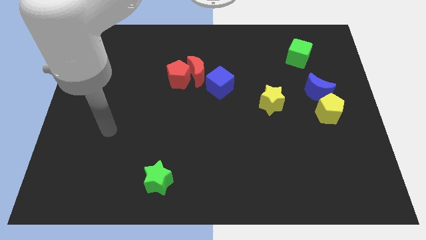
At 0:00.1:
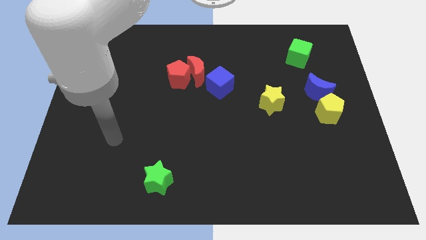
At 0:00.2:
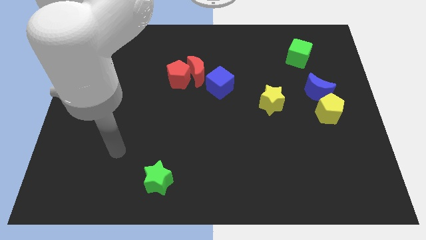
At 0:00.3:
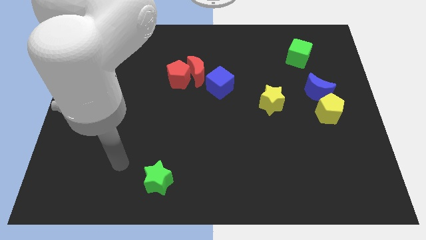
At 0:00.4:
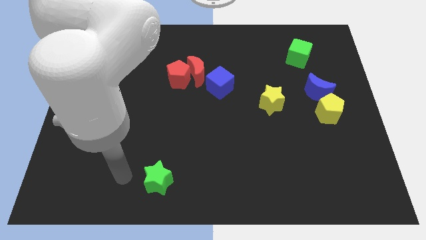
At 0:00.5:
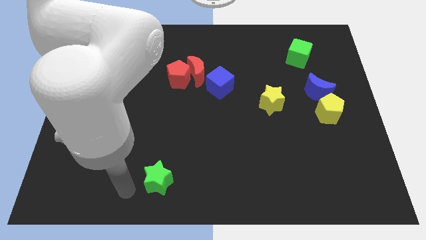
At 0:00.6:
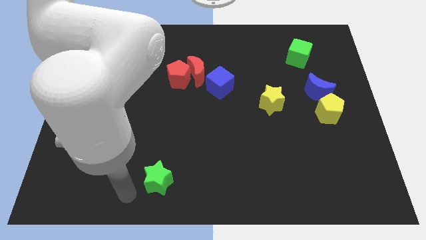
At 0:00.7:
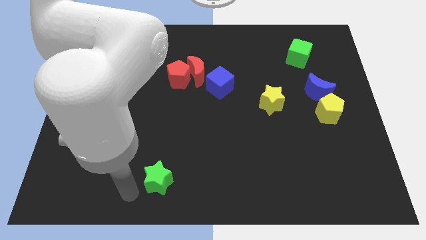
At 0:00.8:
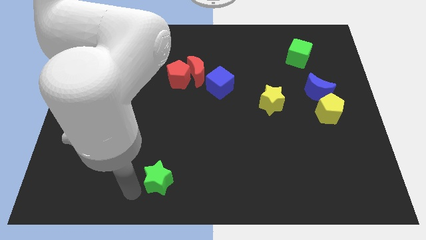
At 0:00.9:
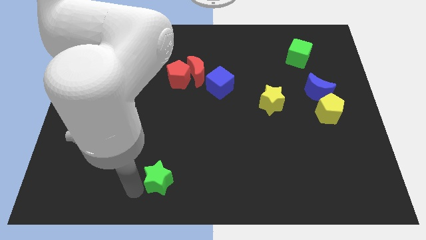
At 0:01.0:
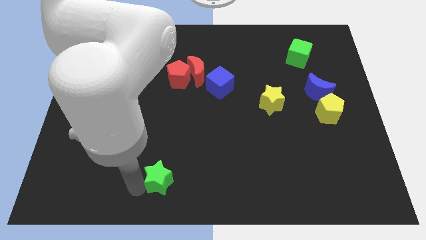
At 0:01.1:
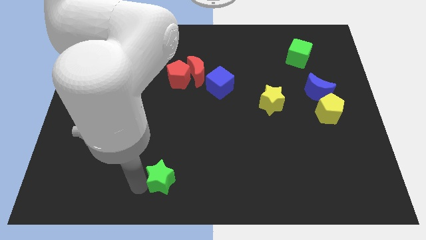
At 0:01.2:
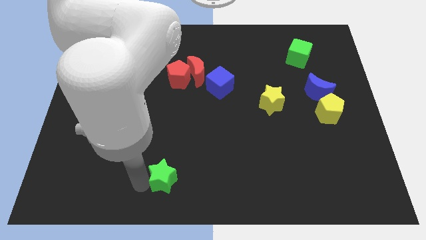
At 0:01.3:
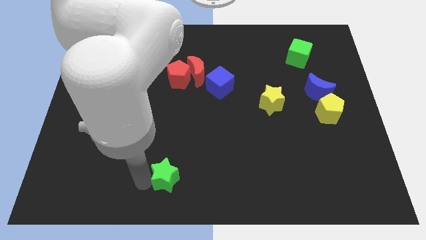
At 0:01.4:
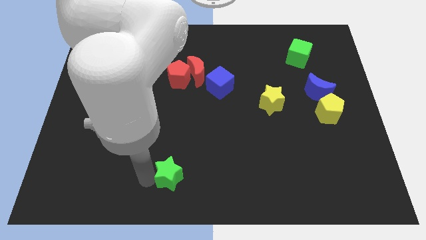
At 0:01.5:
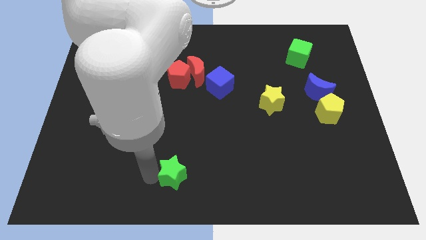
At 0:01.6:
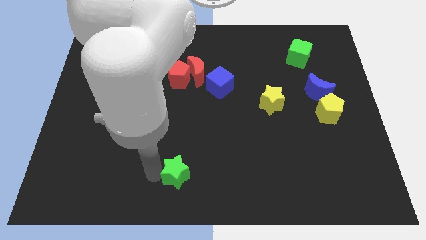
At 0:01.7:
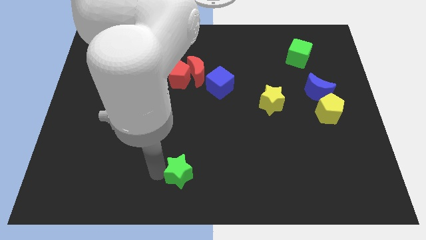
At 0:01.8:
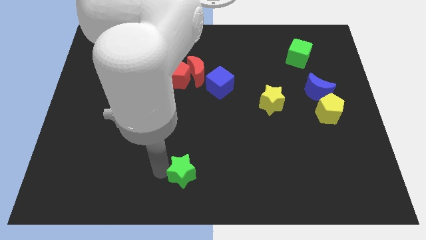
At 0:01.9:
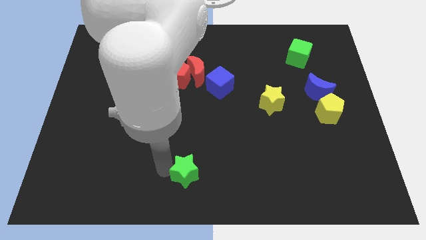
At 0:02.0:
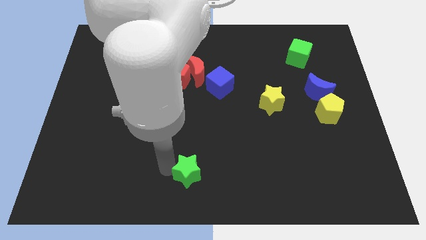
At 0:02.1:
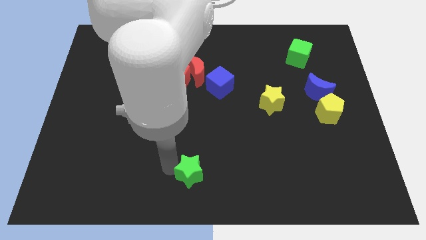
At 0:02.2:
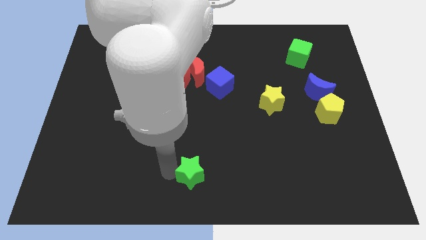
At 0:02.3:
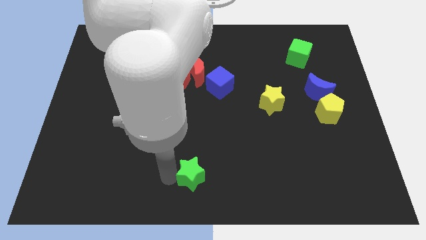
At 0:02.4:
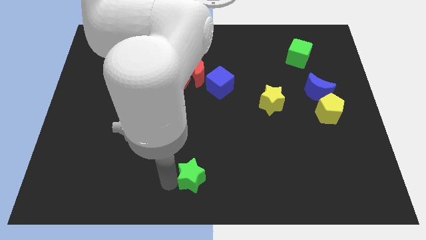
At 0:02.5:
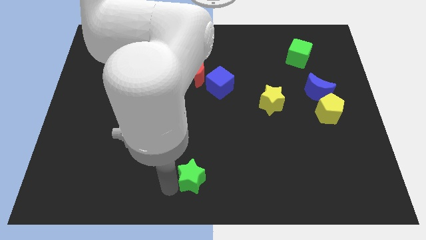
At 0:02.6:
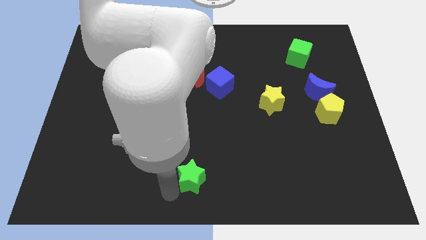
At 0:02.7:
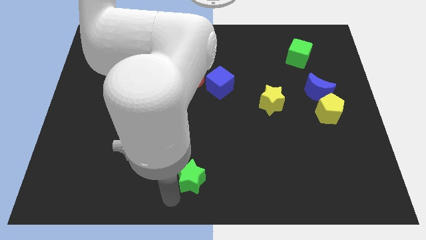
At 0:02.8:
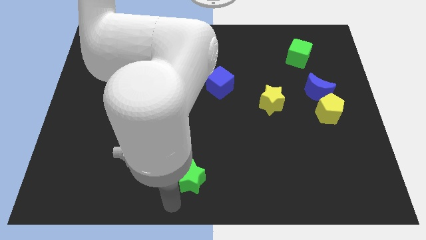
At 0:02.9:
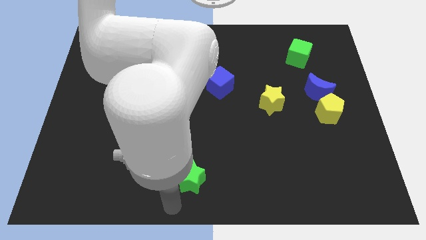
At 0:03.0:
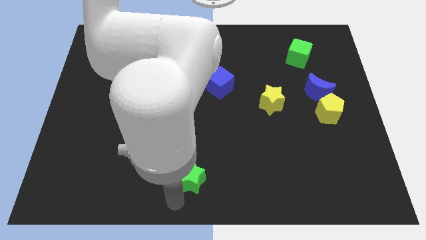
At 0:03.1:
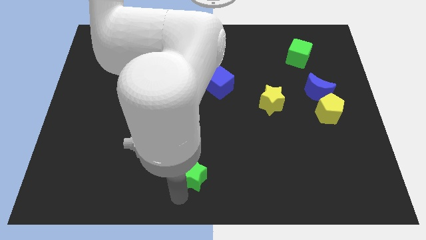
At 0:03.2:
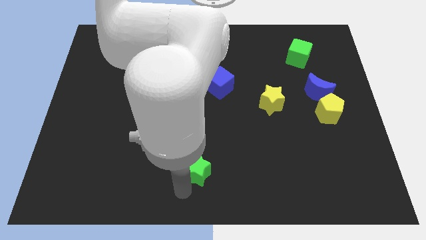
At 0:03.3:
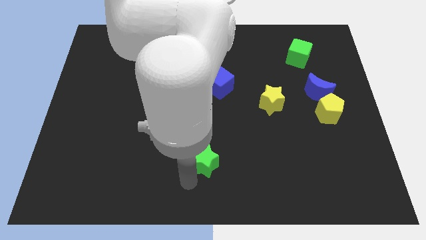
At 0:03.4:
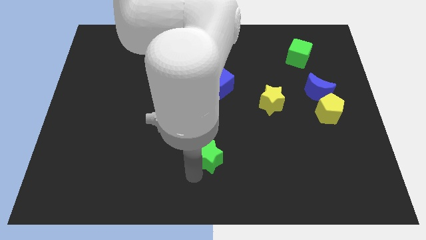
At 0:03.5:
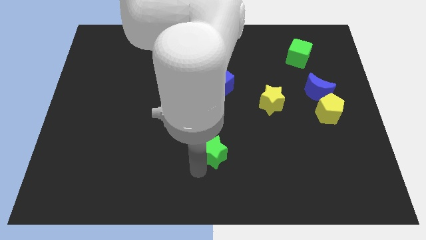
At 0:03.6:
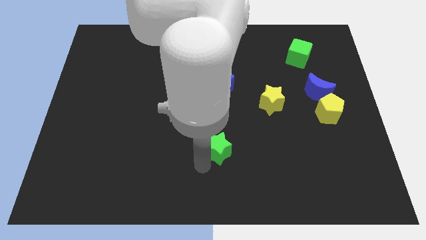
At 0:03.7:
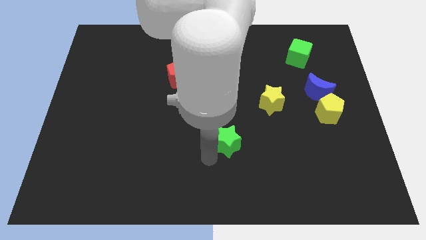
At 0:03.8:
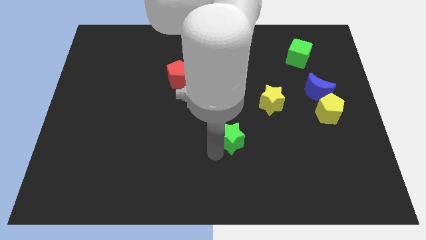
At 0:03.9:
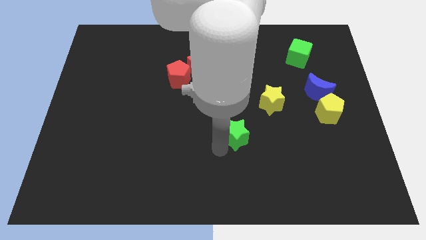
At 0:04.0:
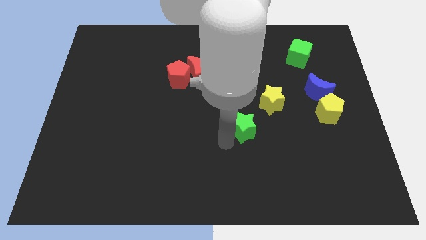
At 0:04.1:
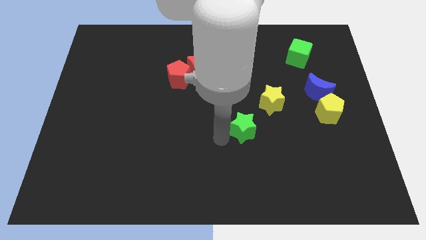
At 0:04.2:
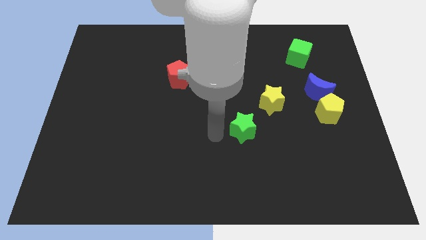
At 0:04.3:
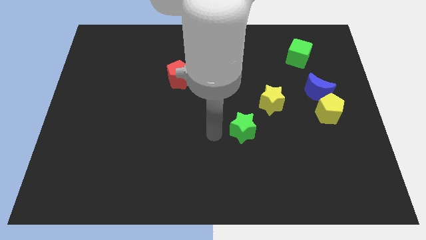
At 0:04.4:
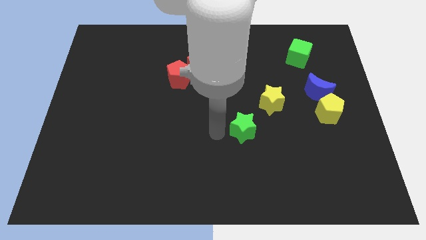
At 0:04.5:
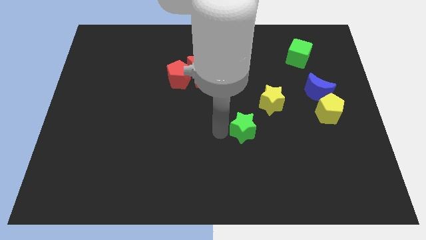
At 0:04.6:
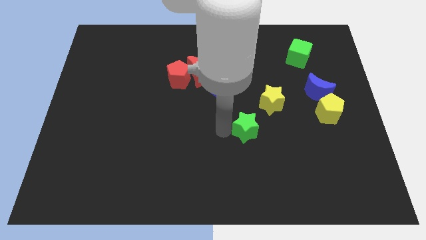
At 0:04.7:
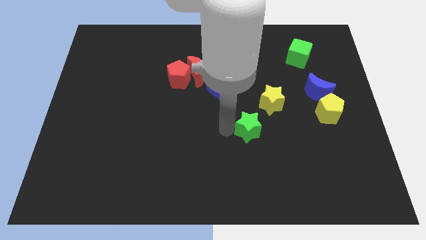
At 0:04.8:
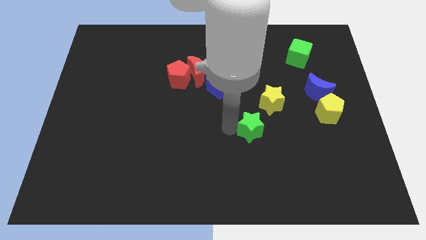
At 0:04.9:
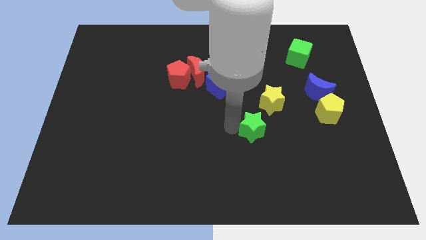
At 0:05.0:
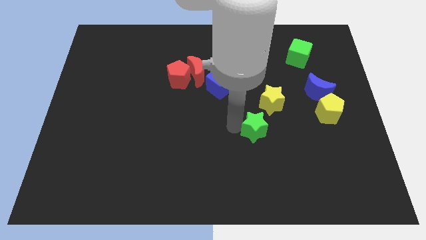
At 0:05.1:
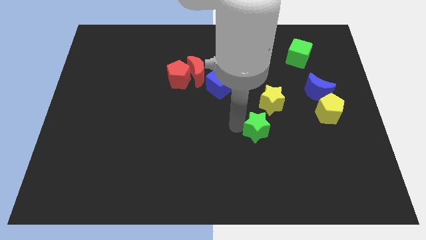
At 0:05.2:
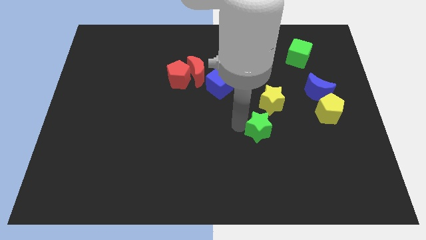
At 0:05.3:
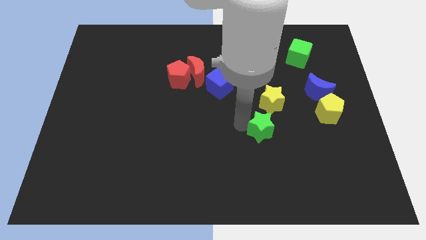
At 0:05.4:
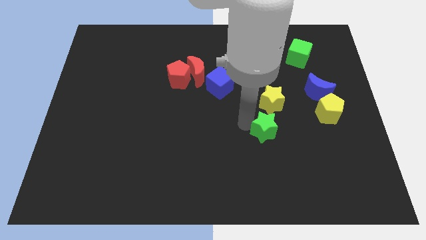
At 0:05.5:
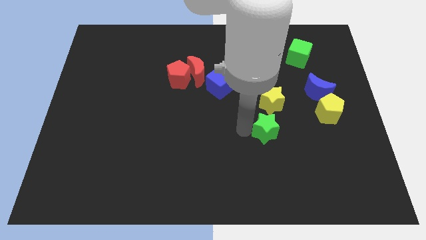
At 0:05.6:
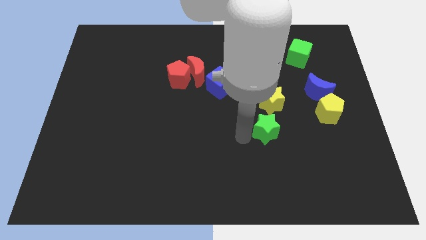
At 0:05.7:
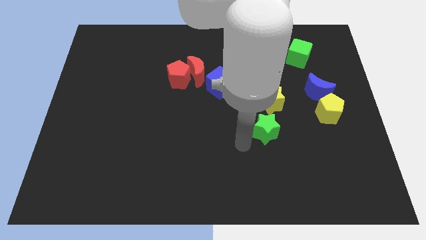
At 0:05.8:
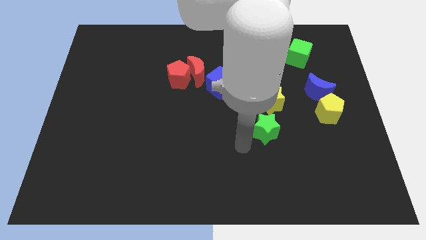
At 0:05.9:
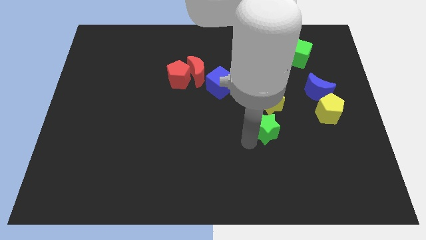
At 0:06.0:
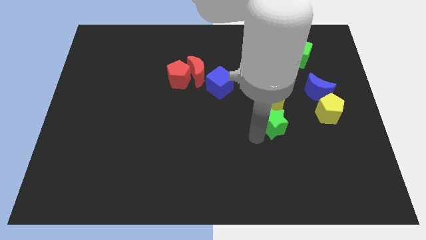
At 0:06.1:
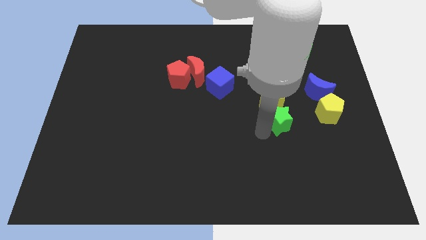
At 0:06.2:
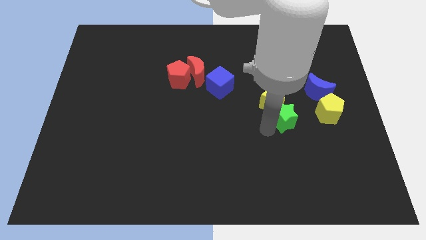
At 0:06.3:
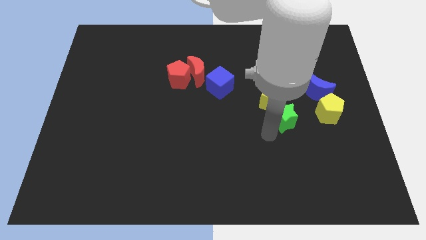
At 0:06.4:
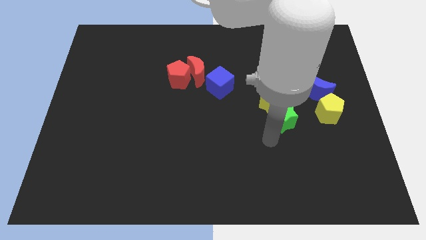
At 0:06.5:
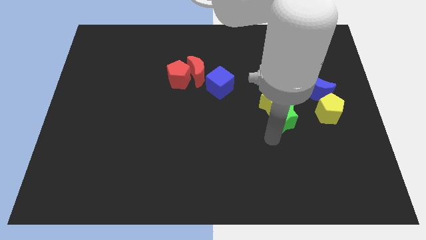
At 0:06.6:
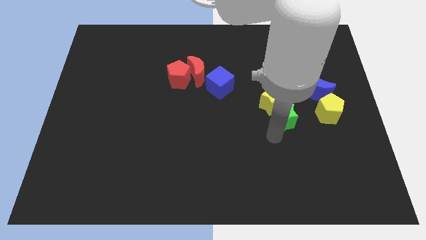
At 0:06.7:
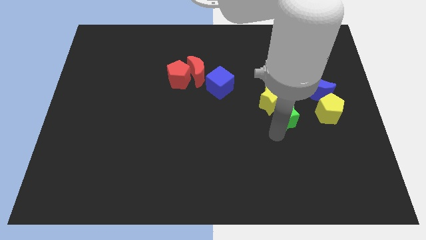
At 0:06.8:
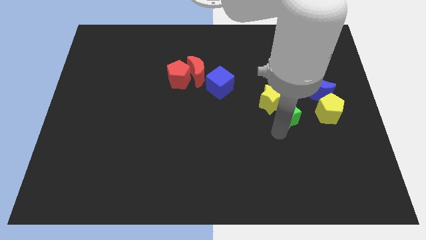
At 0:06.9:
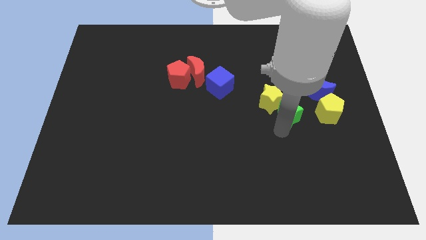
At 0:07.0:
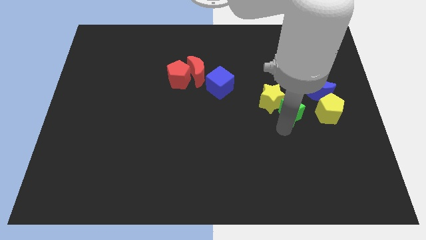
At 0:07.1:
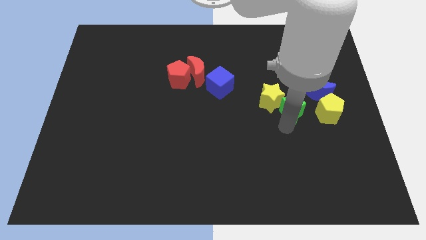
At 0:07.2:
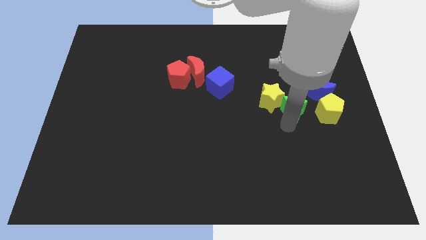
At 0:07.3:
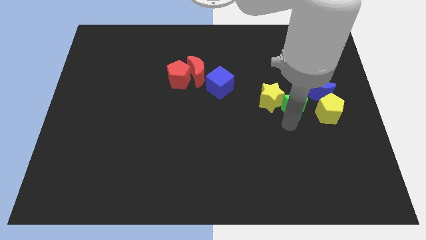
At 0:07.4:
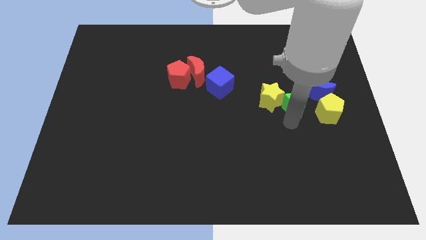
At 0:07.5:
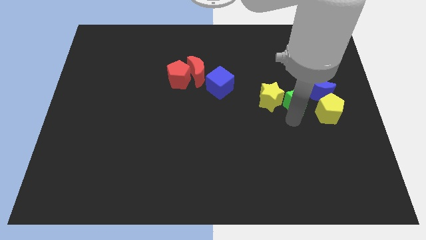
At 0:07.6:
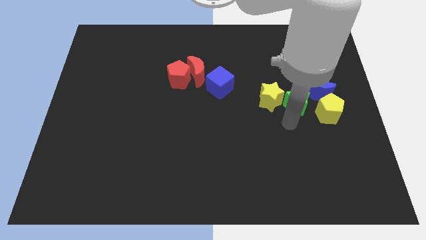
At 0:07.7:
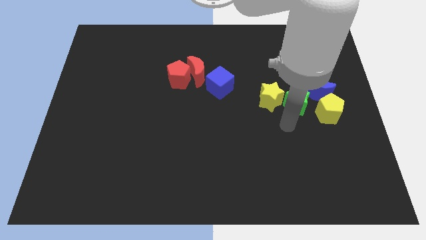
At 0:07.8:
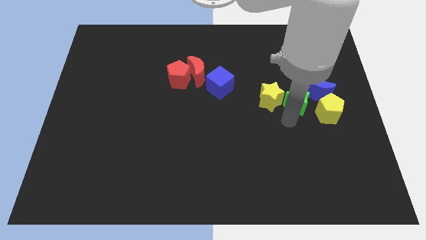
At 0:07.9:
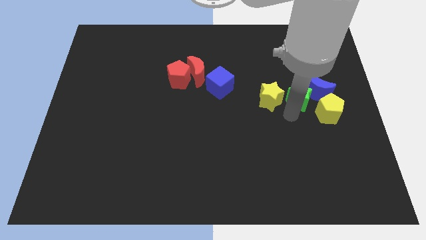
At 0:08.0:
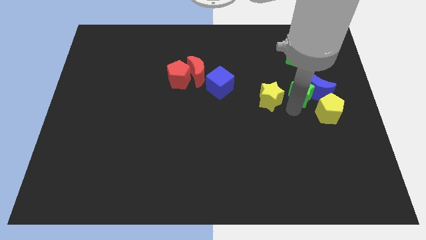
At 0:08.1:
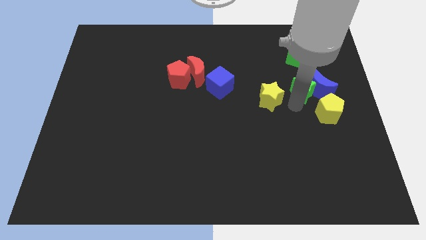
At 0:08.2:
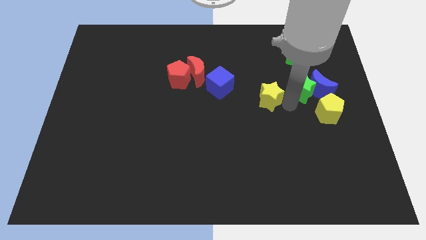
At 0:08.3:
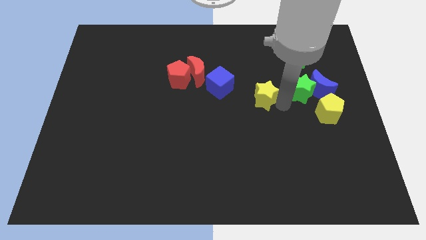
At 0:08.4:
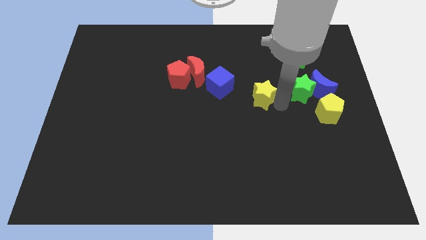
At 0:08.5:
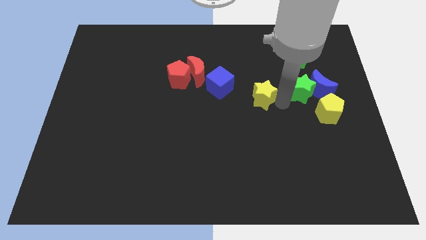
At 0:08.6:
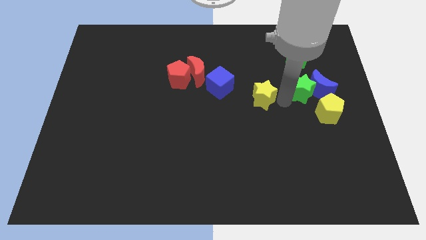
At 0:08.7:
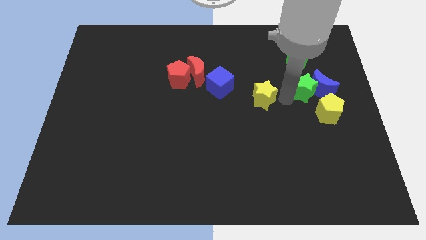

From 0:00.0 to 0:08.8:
slide the green star to the top of the yellow pentagon
